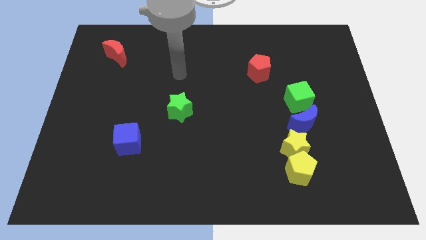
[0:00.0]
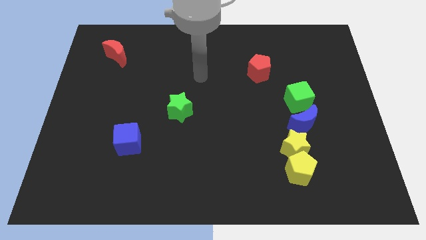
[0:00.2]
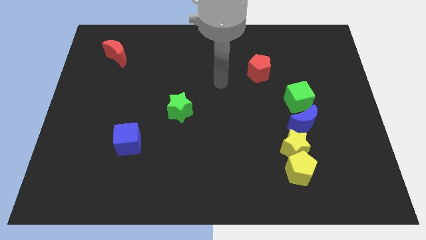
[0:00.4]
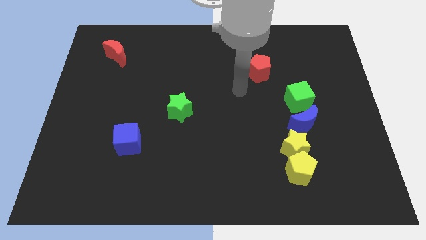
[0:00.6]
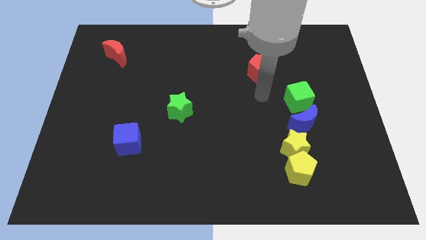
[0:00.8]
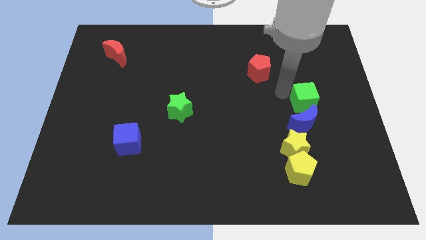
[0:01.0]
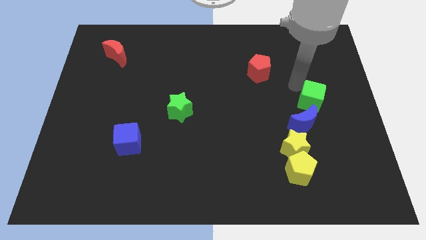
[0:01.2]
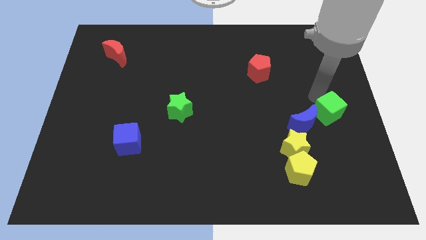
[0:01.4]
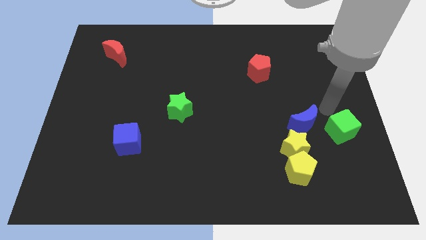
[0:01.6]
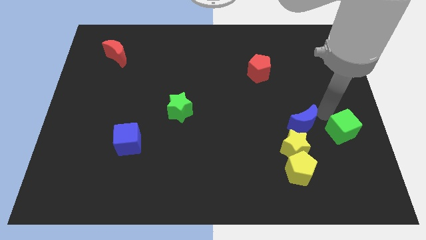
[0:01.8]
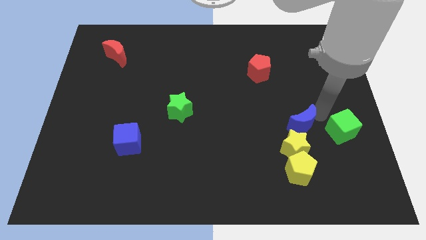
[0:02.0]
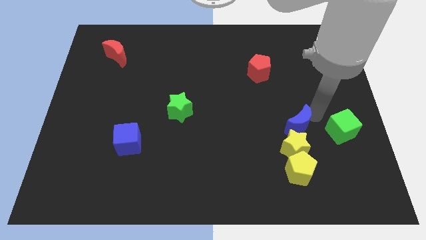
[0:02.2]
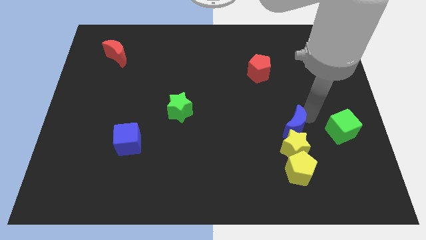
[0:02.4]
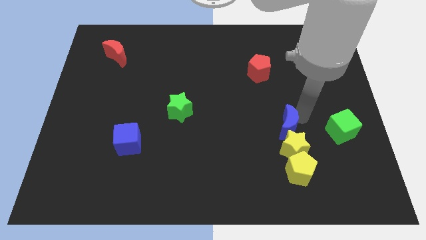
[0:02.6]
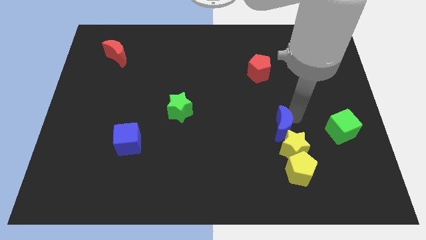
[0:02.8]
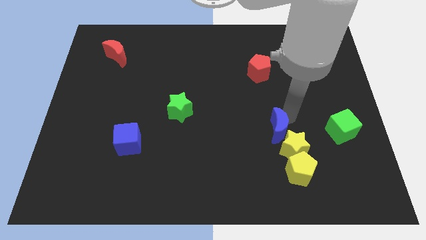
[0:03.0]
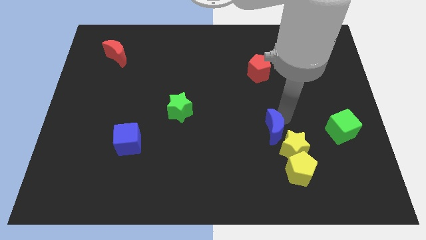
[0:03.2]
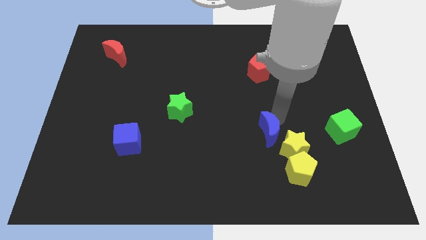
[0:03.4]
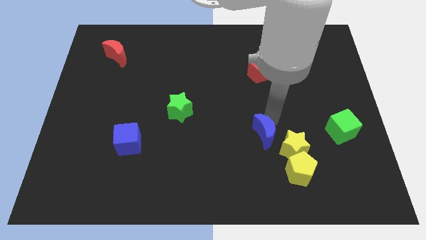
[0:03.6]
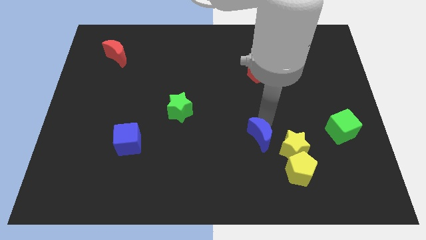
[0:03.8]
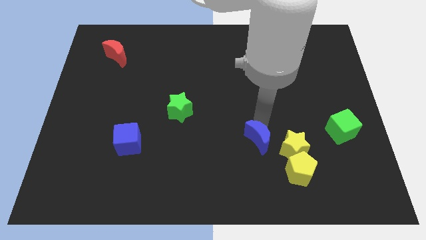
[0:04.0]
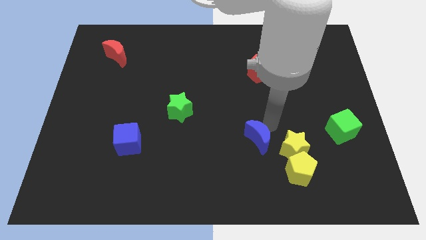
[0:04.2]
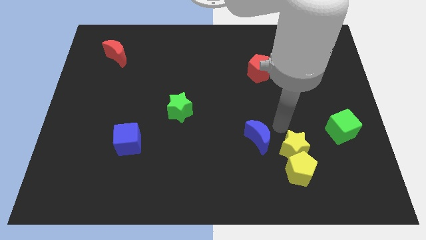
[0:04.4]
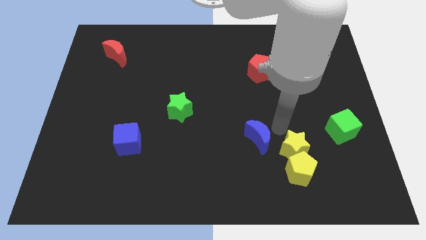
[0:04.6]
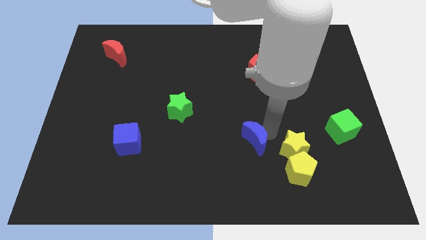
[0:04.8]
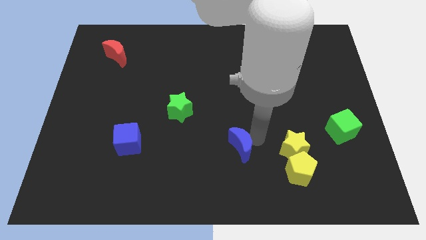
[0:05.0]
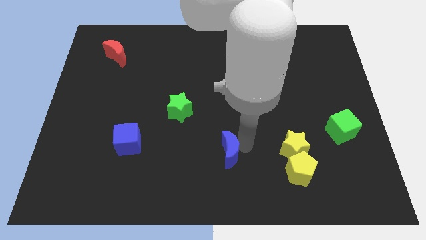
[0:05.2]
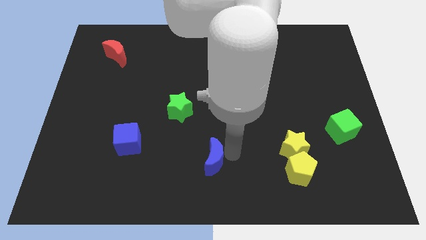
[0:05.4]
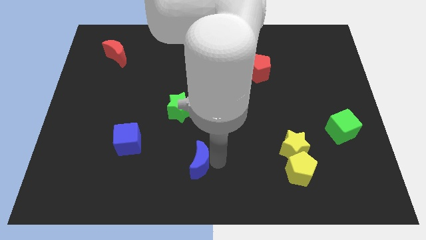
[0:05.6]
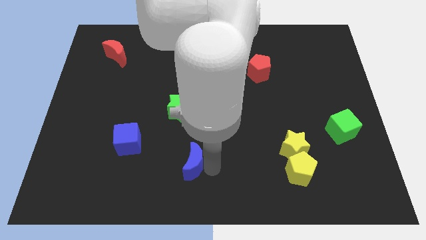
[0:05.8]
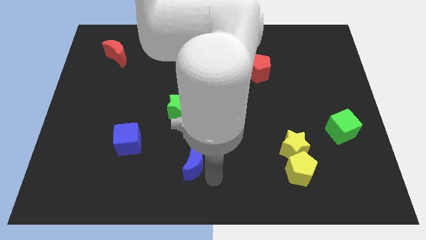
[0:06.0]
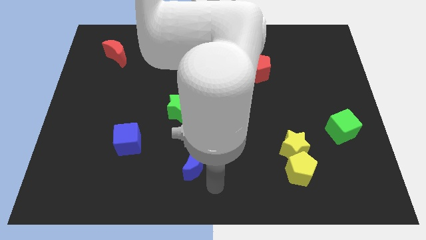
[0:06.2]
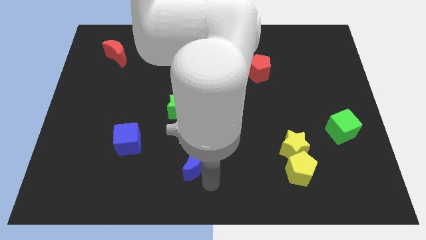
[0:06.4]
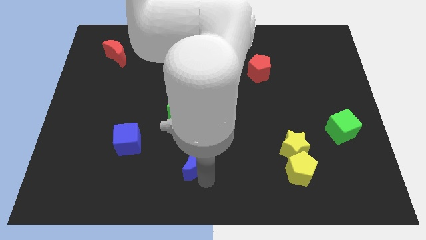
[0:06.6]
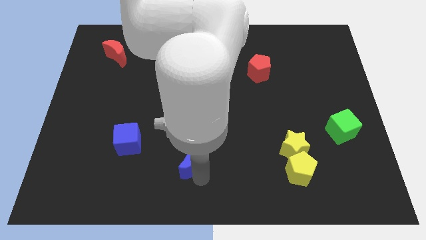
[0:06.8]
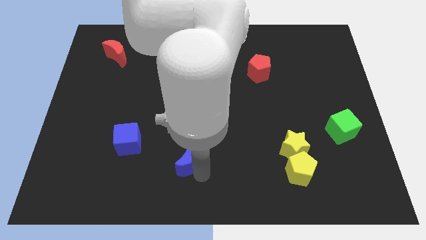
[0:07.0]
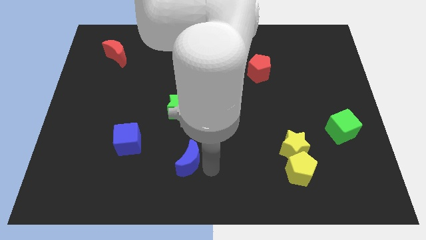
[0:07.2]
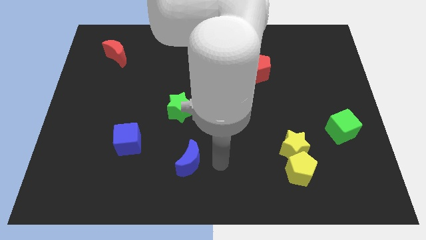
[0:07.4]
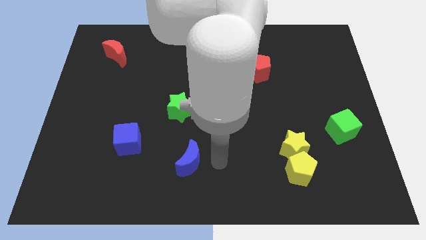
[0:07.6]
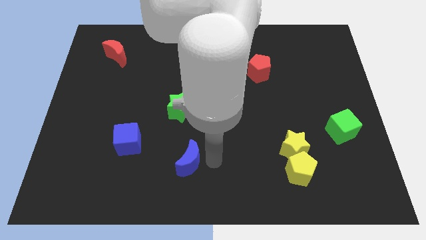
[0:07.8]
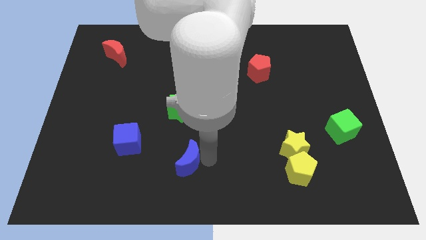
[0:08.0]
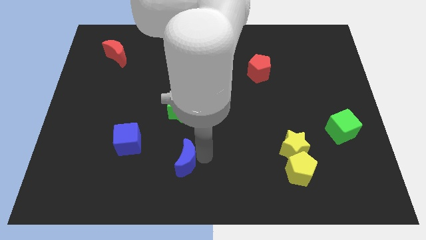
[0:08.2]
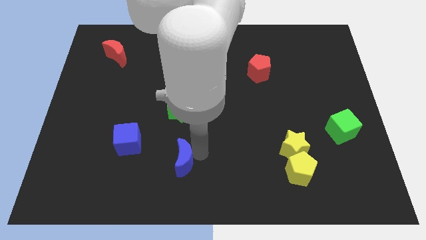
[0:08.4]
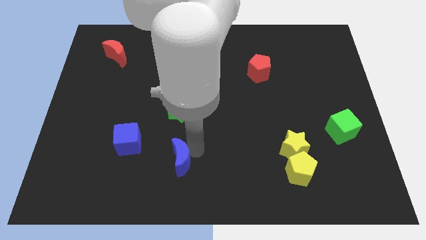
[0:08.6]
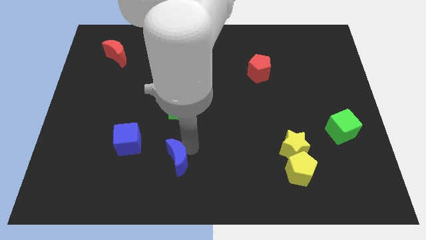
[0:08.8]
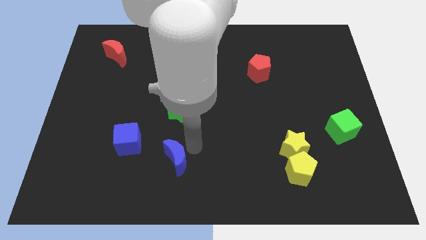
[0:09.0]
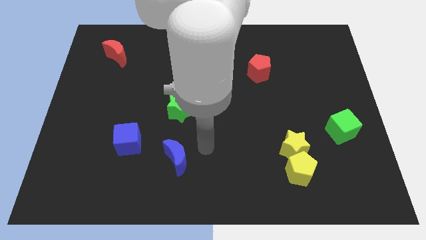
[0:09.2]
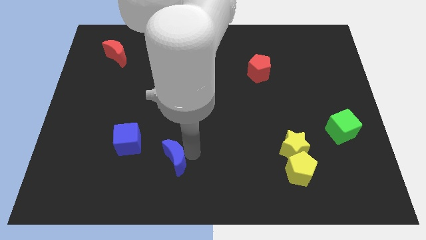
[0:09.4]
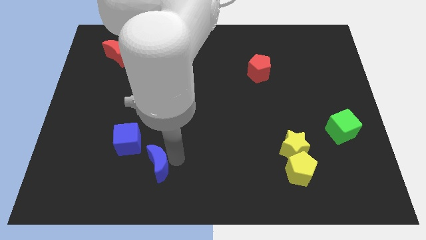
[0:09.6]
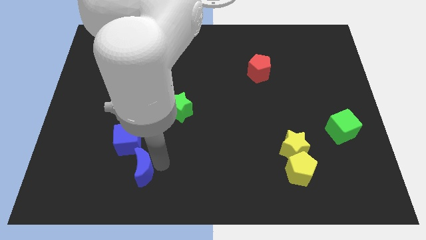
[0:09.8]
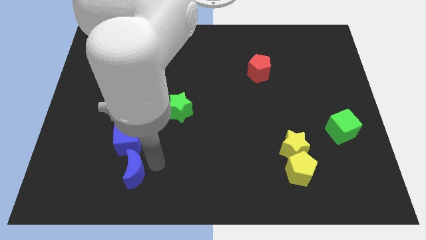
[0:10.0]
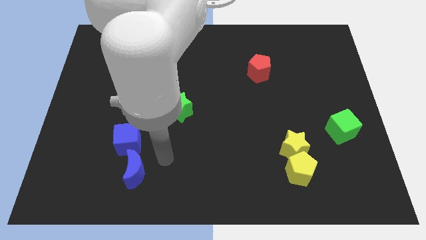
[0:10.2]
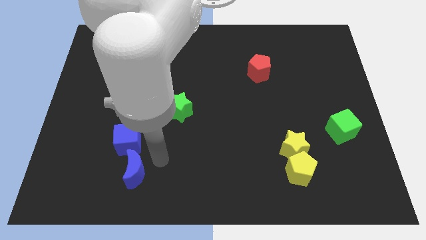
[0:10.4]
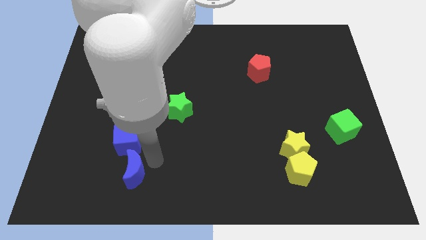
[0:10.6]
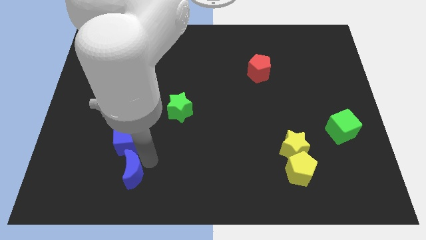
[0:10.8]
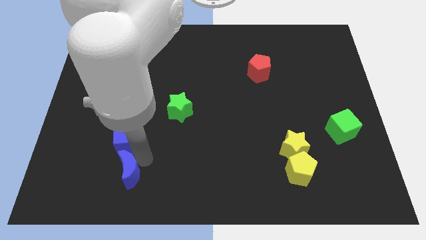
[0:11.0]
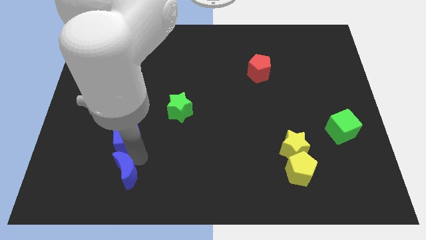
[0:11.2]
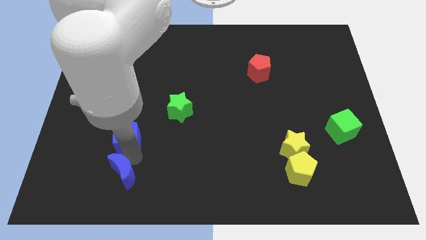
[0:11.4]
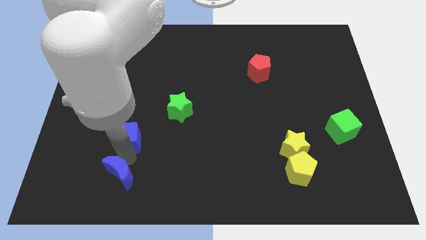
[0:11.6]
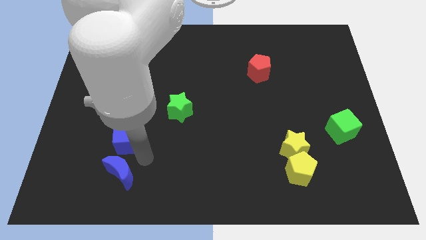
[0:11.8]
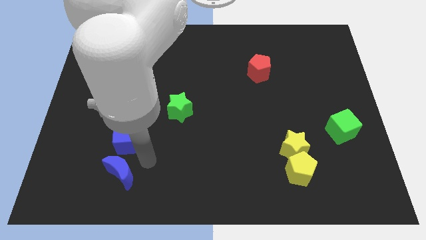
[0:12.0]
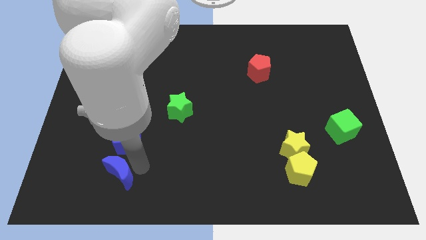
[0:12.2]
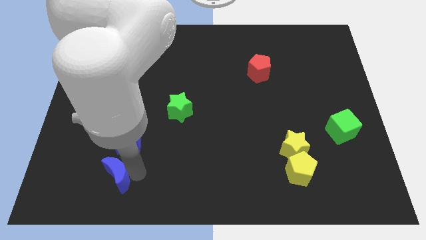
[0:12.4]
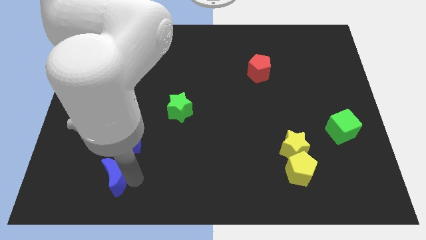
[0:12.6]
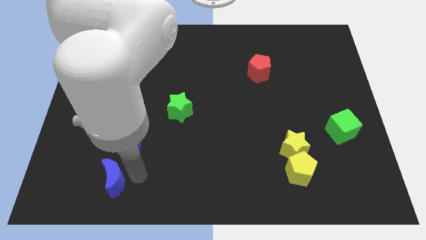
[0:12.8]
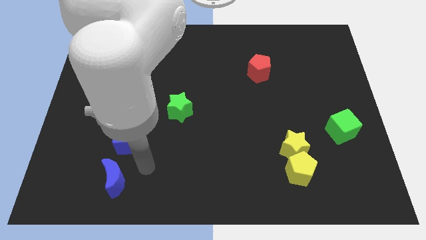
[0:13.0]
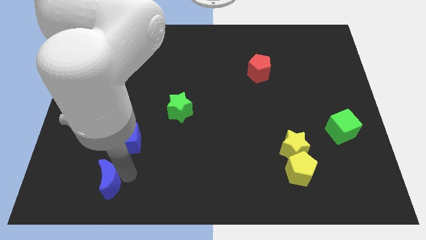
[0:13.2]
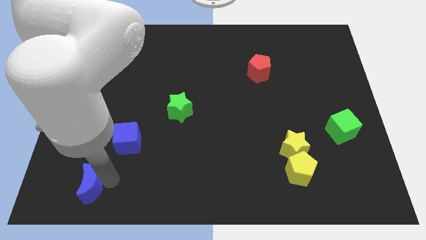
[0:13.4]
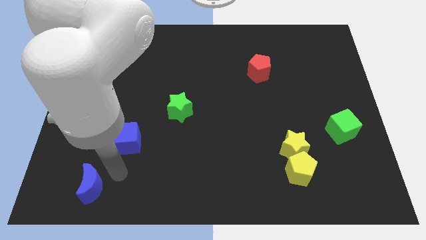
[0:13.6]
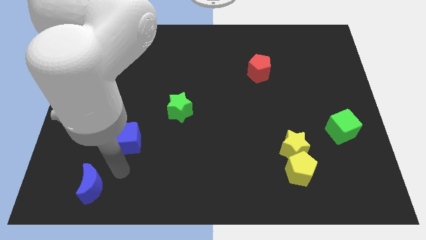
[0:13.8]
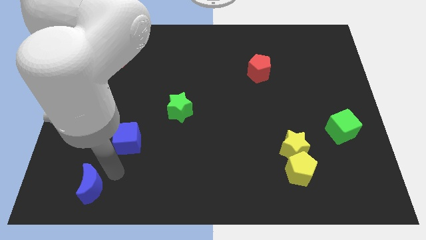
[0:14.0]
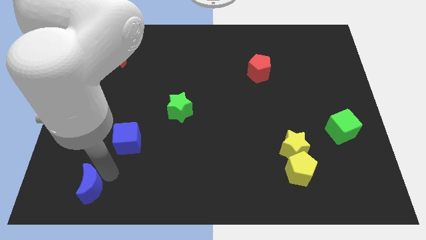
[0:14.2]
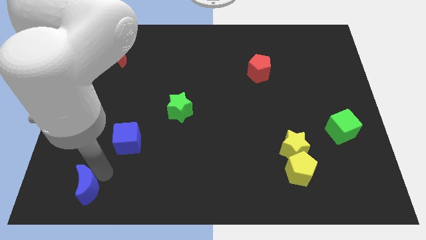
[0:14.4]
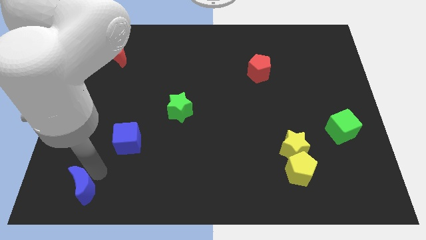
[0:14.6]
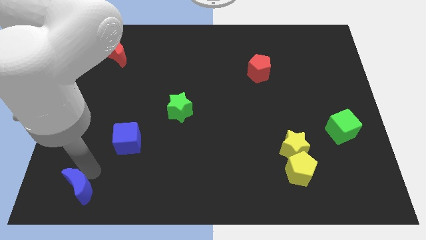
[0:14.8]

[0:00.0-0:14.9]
move the blue moon to the lower left corner
